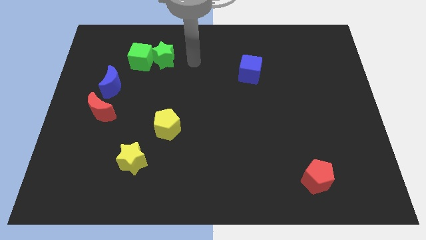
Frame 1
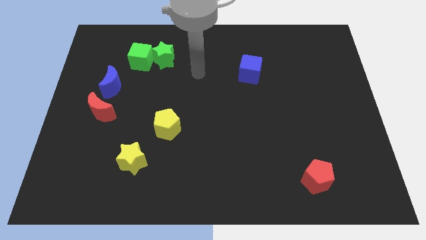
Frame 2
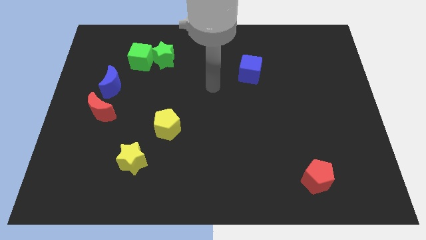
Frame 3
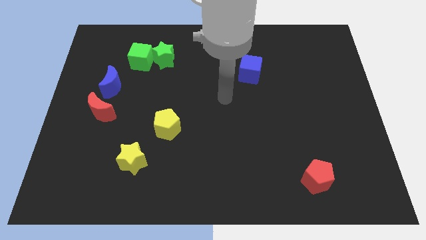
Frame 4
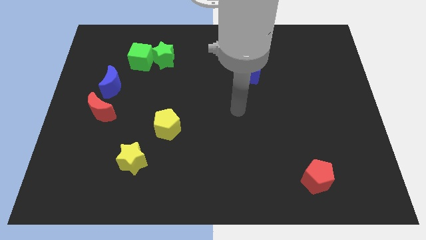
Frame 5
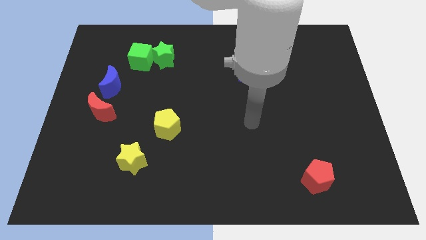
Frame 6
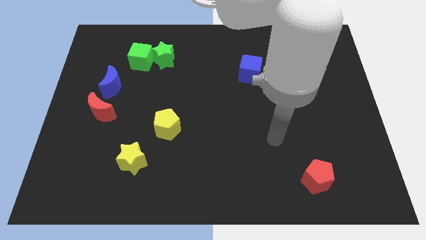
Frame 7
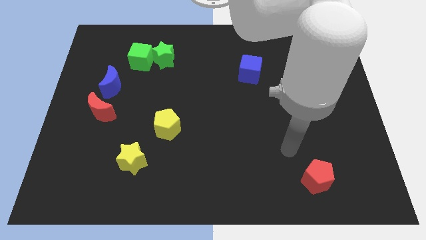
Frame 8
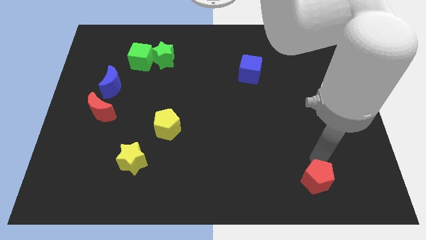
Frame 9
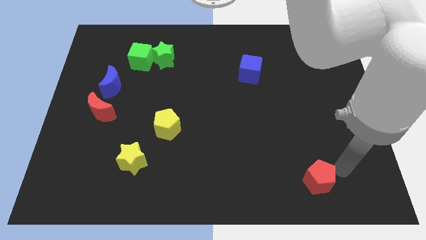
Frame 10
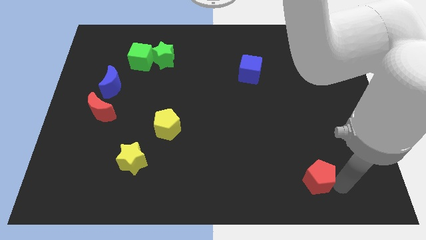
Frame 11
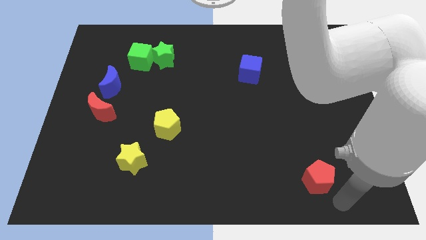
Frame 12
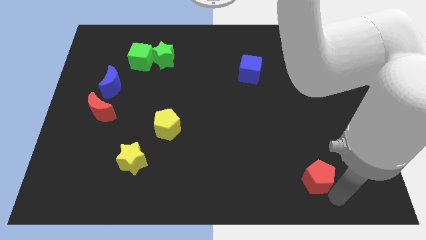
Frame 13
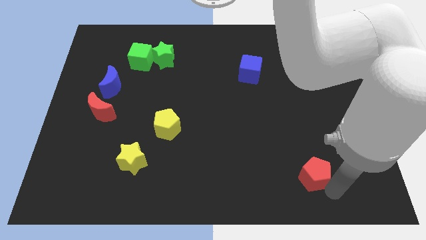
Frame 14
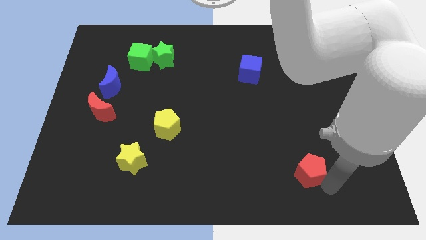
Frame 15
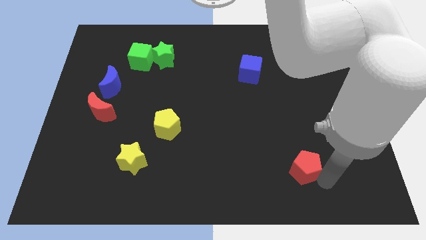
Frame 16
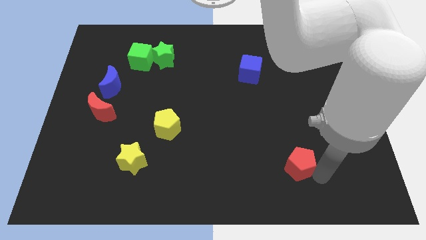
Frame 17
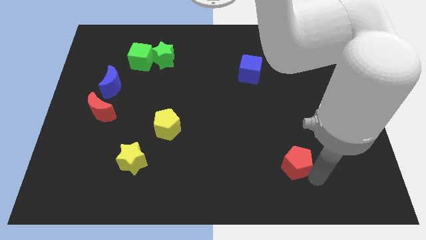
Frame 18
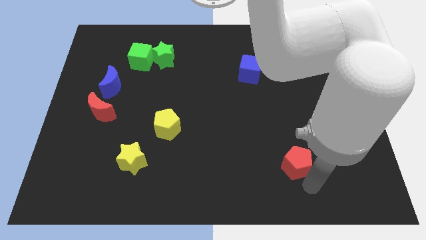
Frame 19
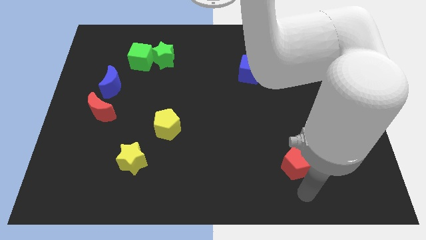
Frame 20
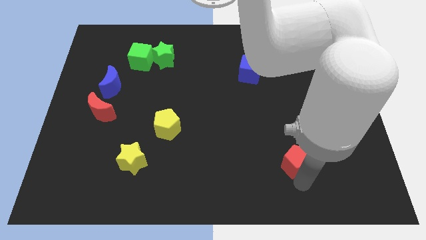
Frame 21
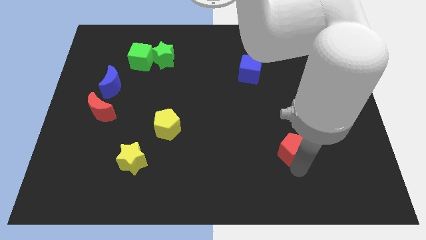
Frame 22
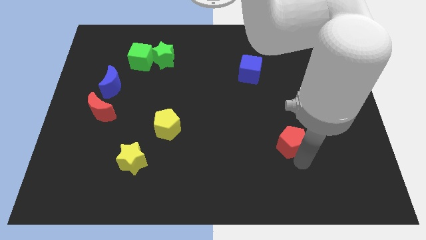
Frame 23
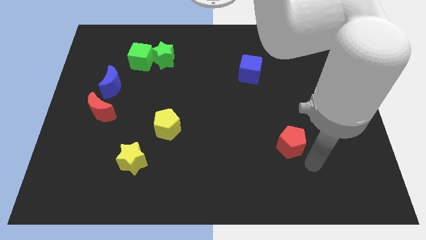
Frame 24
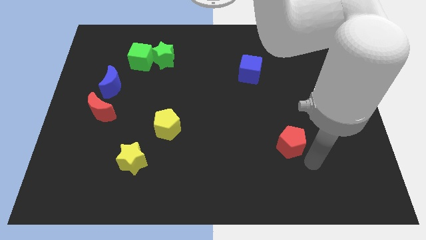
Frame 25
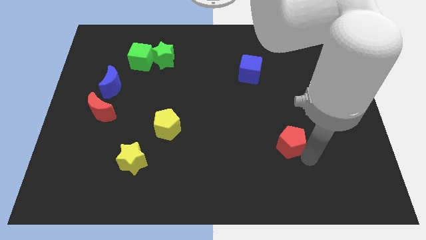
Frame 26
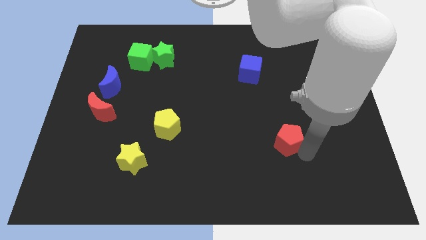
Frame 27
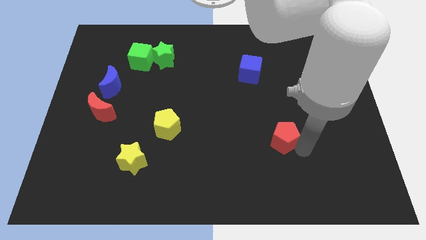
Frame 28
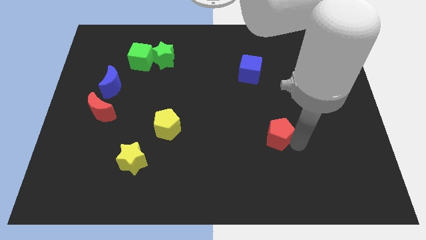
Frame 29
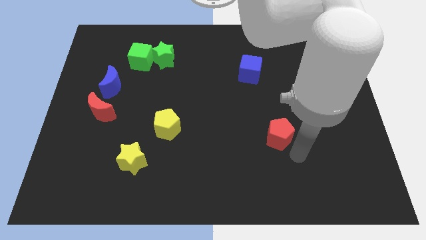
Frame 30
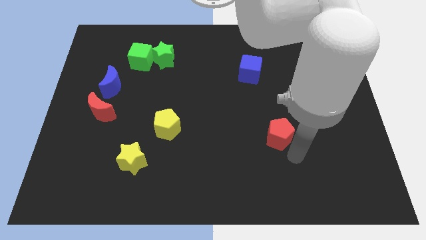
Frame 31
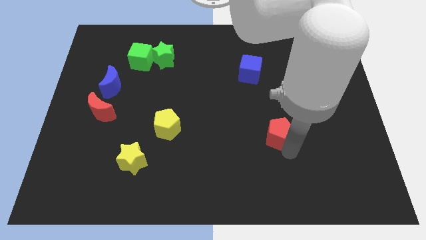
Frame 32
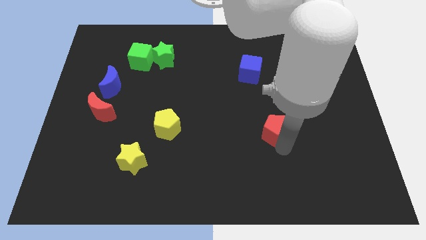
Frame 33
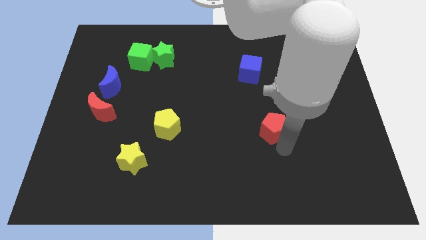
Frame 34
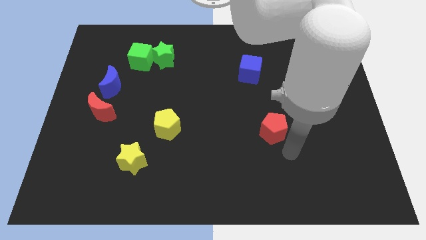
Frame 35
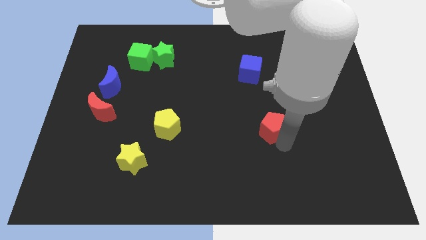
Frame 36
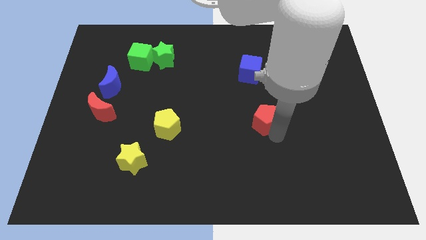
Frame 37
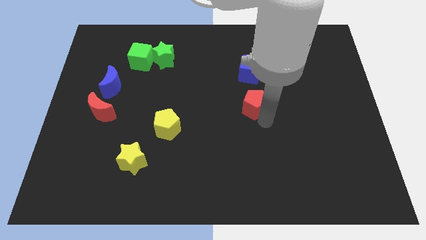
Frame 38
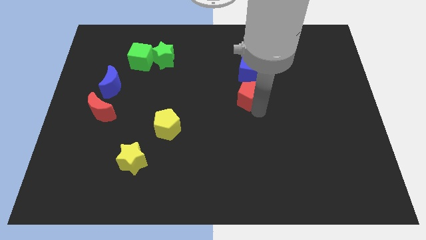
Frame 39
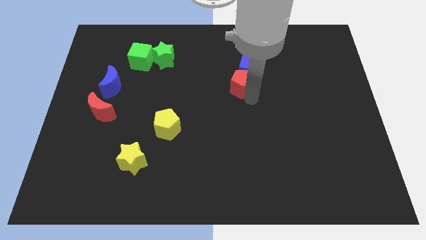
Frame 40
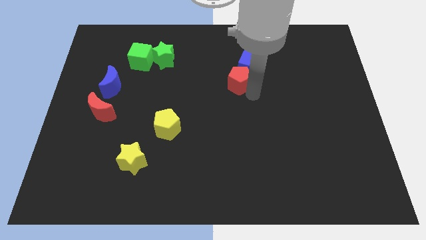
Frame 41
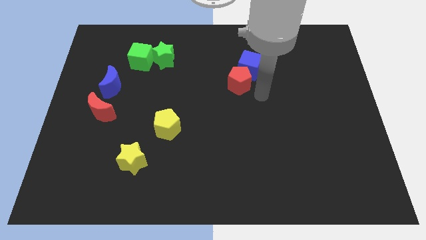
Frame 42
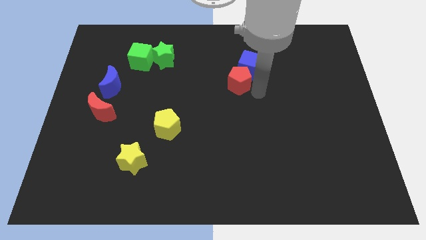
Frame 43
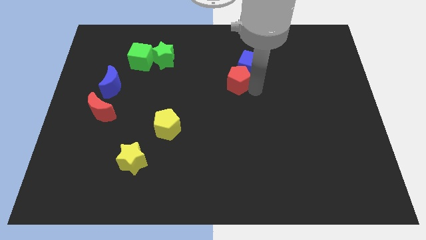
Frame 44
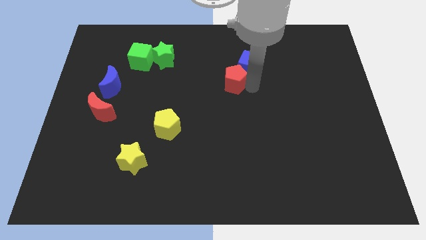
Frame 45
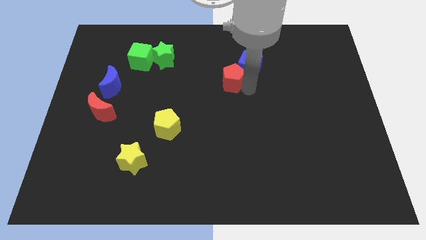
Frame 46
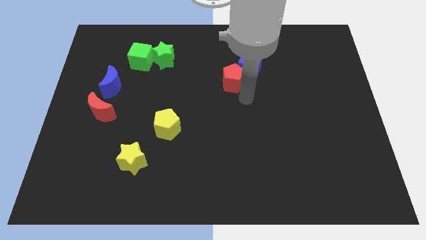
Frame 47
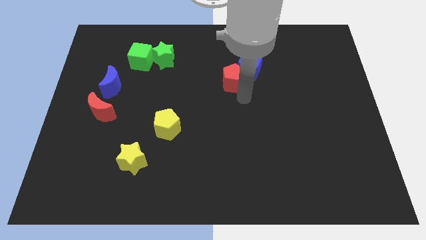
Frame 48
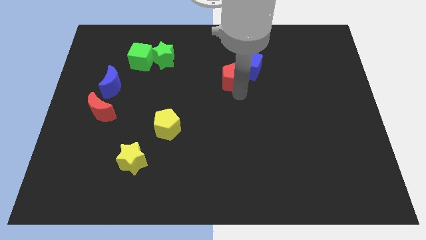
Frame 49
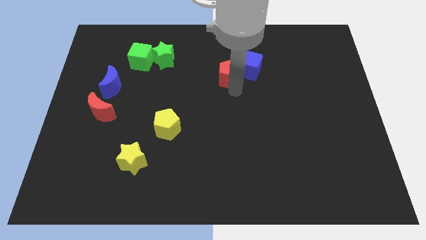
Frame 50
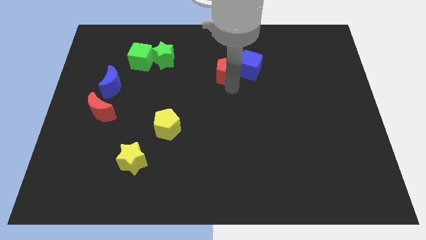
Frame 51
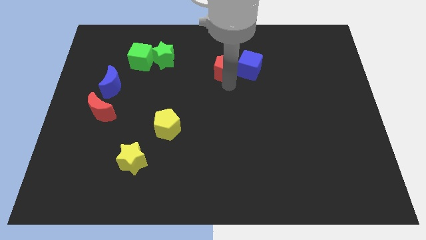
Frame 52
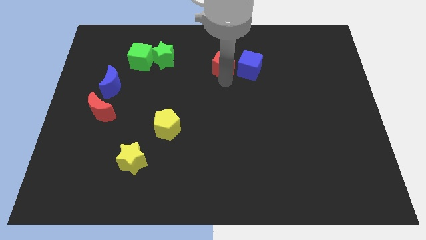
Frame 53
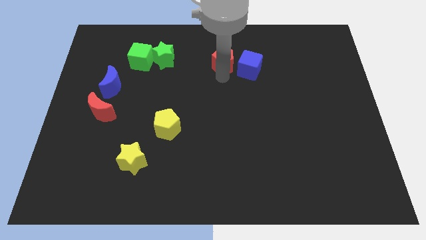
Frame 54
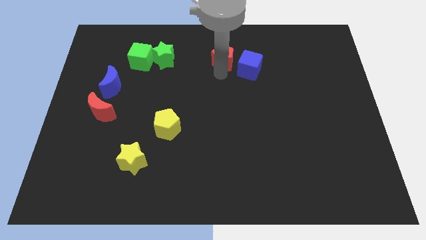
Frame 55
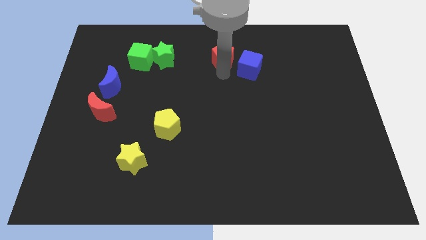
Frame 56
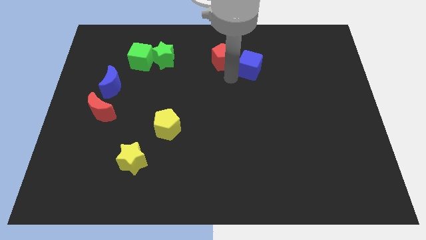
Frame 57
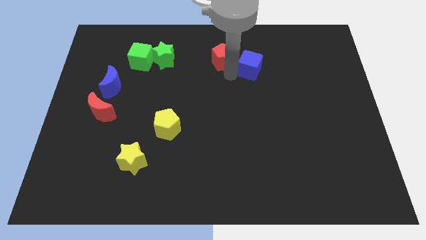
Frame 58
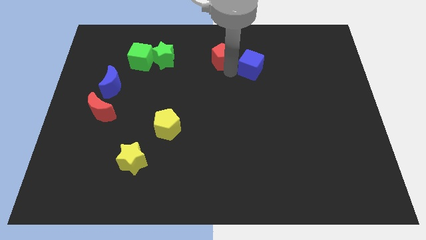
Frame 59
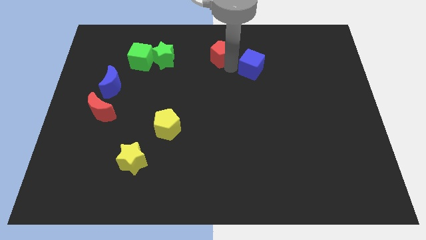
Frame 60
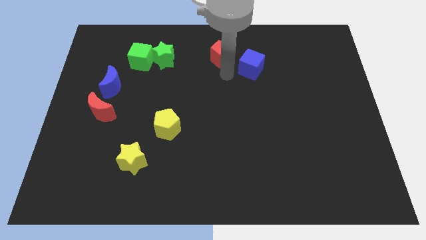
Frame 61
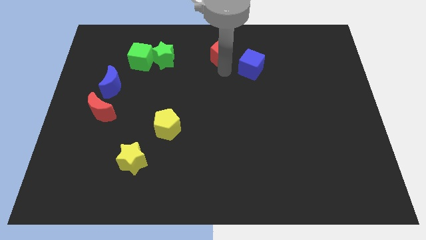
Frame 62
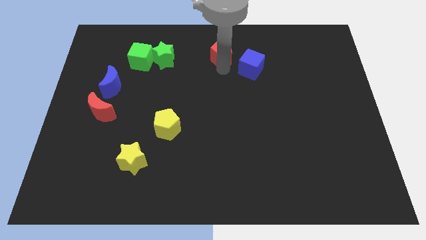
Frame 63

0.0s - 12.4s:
push the red pentagon to the towards your base
